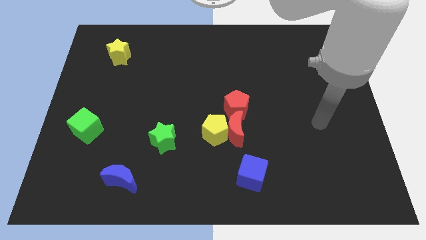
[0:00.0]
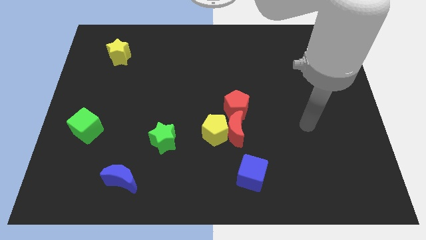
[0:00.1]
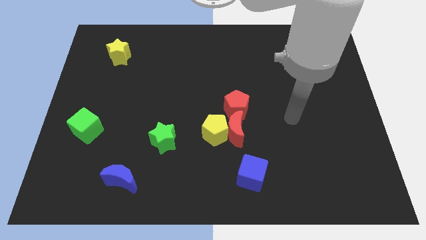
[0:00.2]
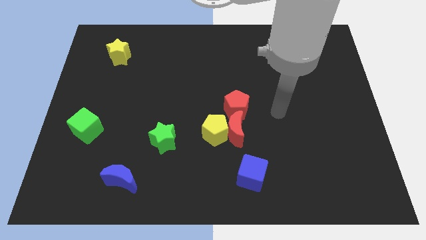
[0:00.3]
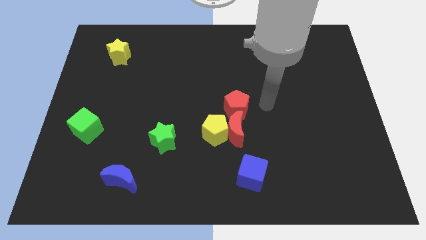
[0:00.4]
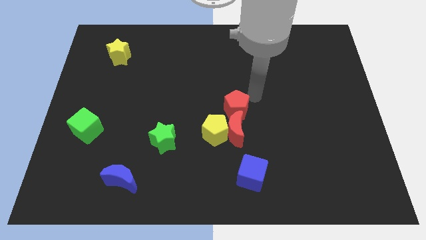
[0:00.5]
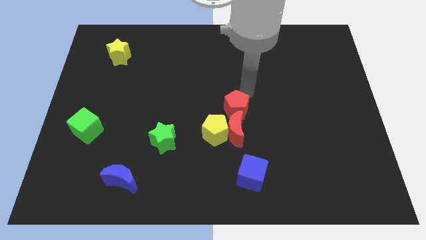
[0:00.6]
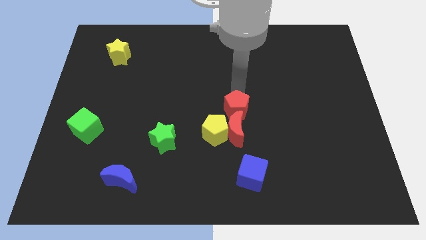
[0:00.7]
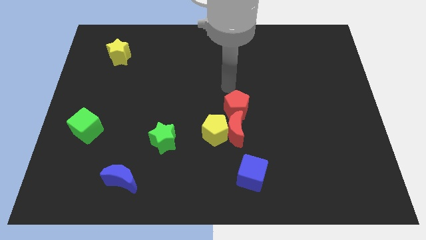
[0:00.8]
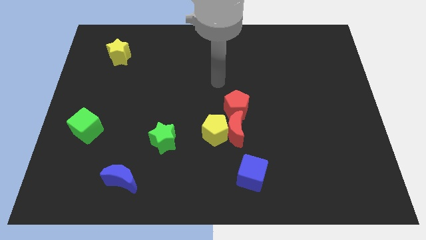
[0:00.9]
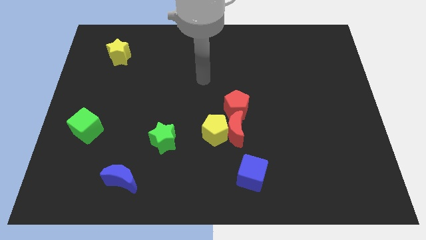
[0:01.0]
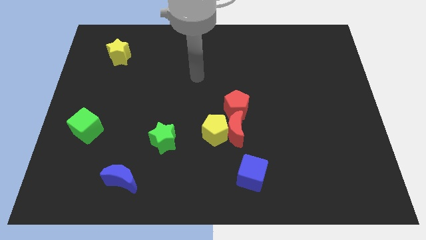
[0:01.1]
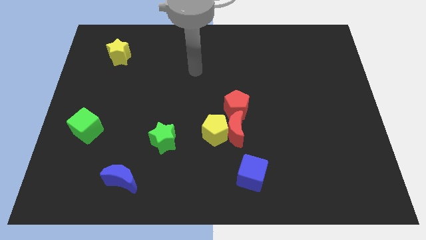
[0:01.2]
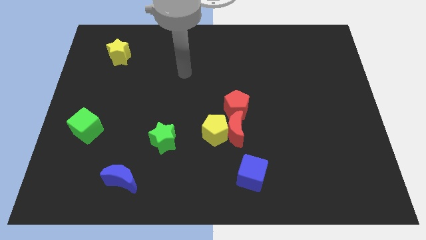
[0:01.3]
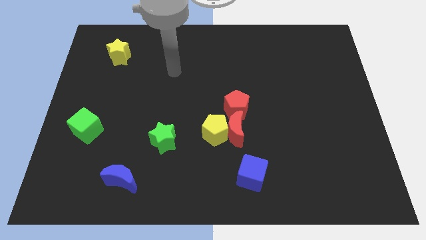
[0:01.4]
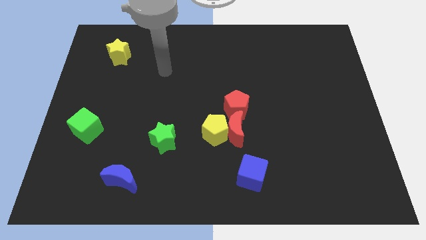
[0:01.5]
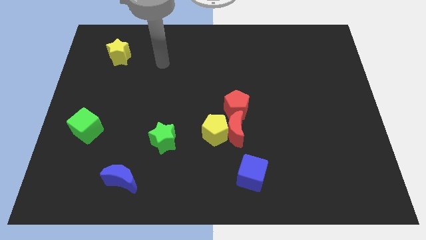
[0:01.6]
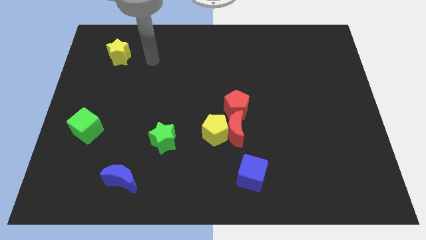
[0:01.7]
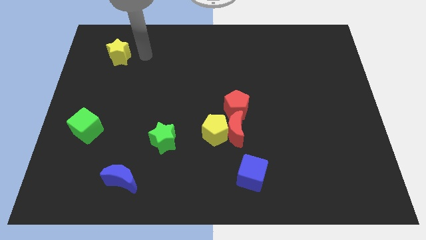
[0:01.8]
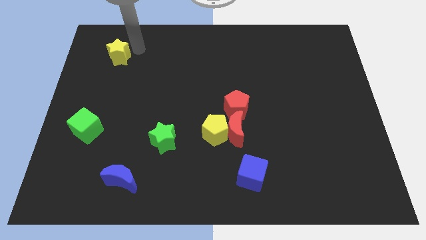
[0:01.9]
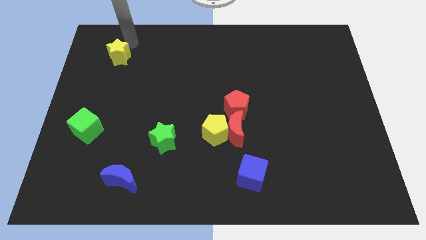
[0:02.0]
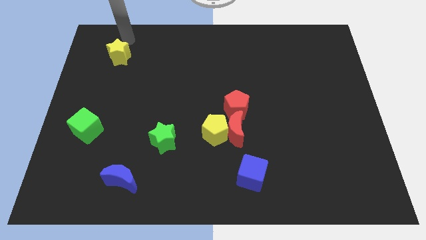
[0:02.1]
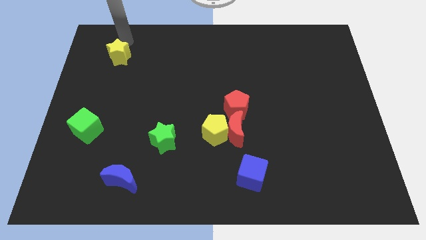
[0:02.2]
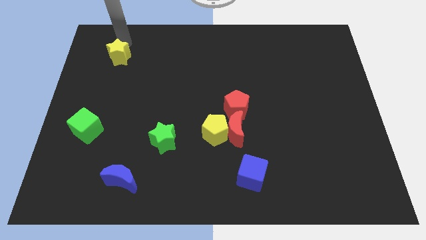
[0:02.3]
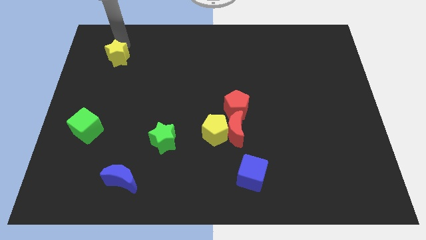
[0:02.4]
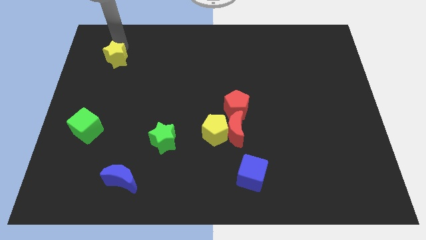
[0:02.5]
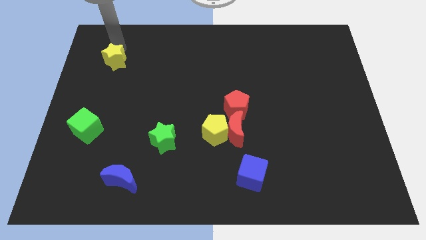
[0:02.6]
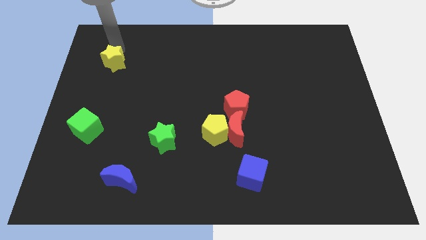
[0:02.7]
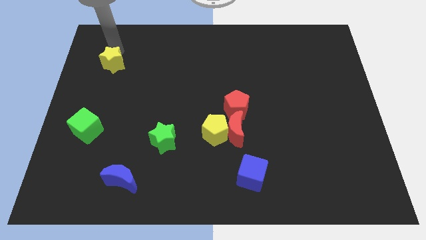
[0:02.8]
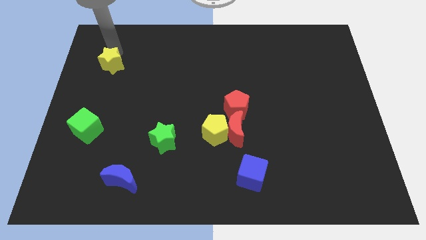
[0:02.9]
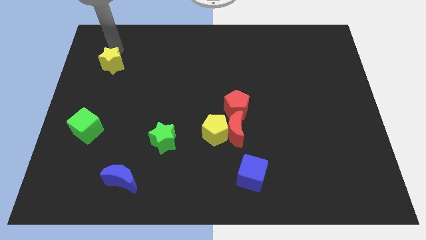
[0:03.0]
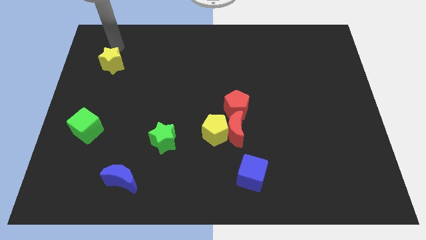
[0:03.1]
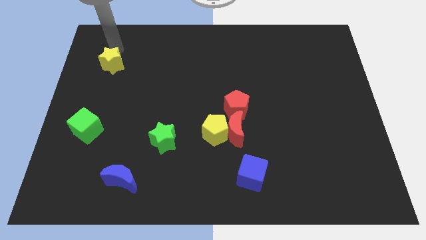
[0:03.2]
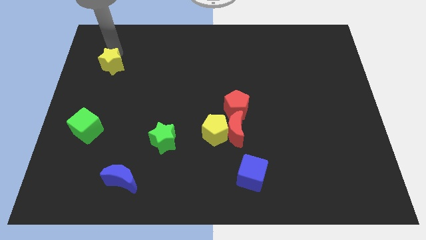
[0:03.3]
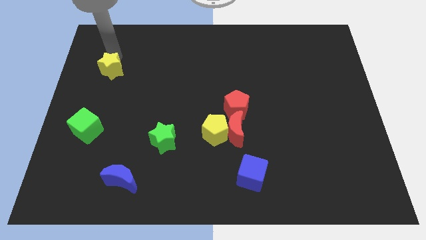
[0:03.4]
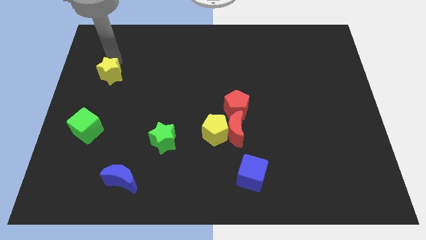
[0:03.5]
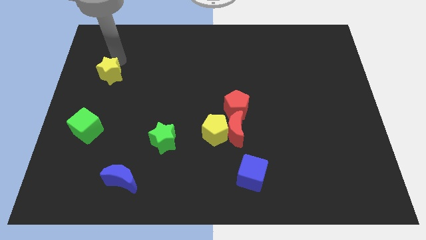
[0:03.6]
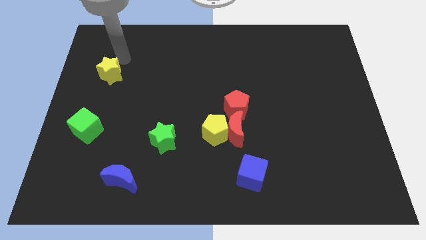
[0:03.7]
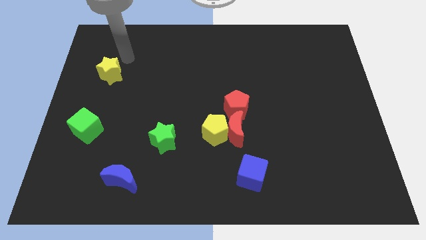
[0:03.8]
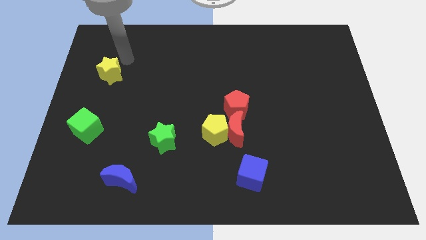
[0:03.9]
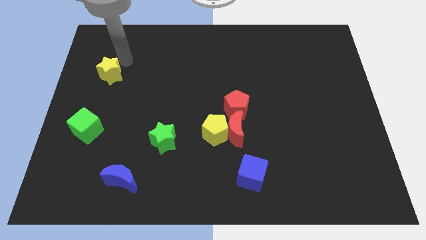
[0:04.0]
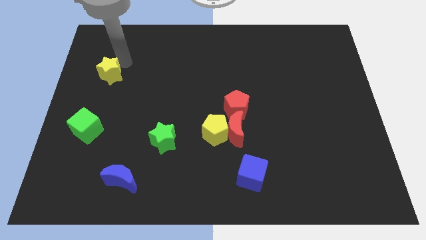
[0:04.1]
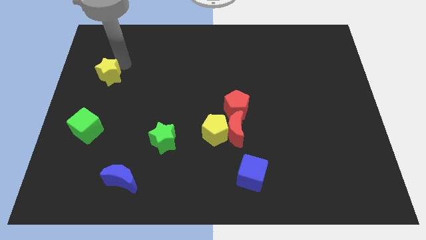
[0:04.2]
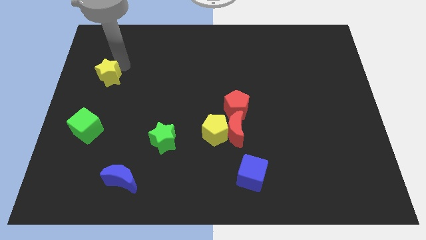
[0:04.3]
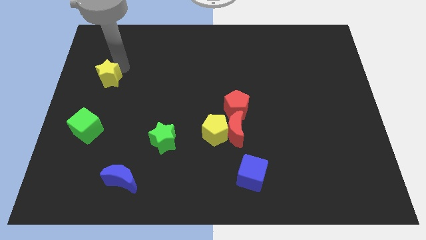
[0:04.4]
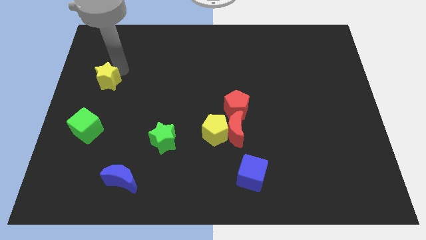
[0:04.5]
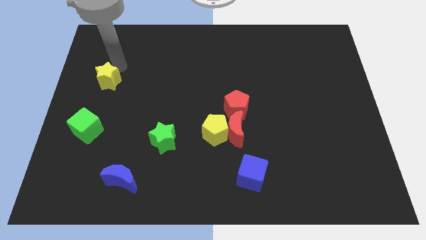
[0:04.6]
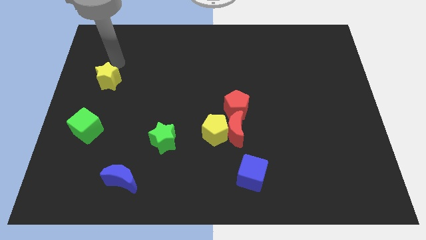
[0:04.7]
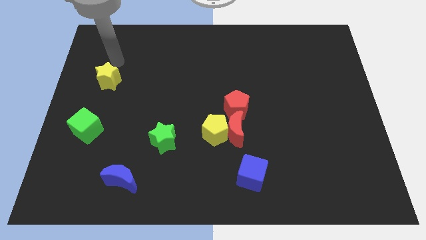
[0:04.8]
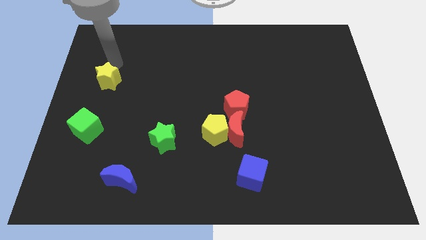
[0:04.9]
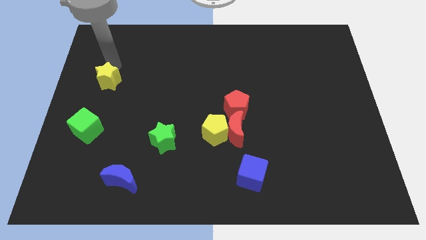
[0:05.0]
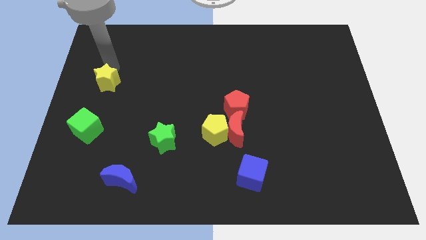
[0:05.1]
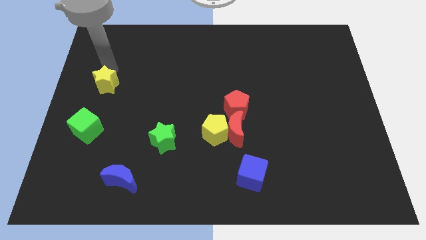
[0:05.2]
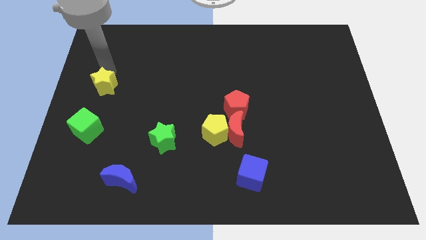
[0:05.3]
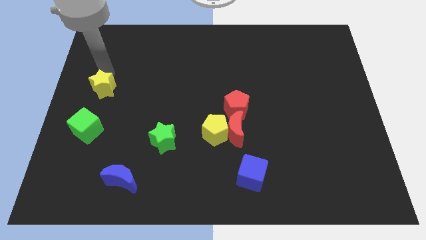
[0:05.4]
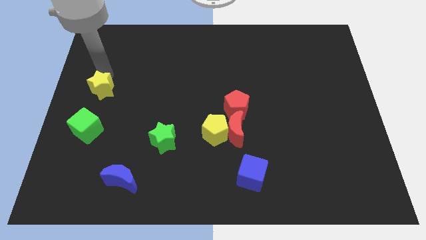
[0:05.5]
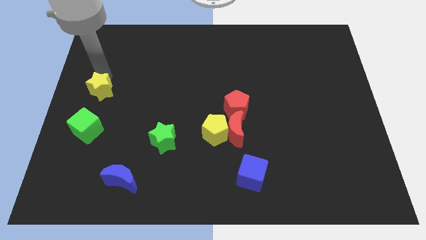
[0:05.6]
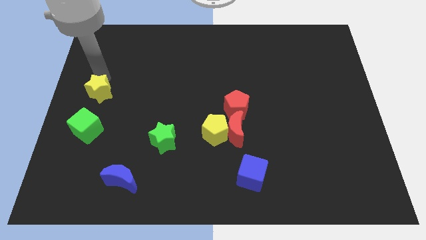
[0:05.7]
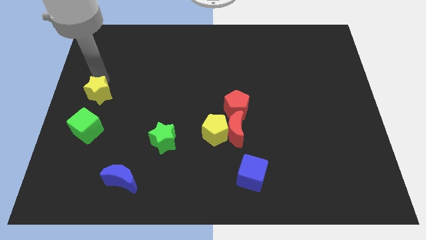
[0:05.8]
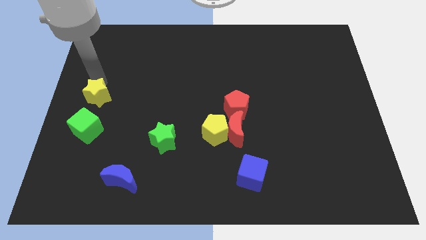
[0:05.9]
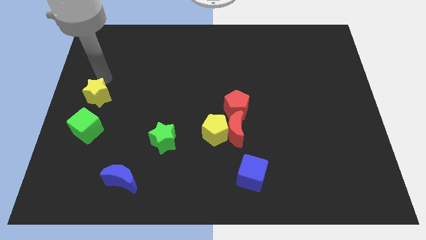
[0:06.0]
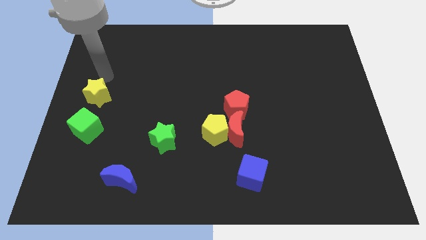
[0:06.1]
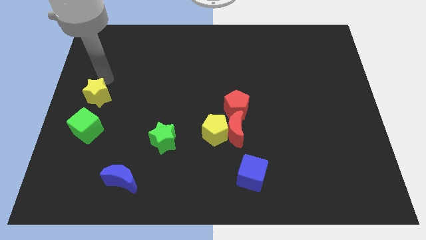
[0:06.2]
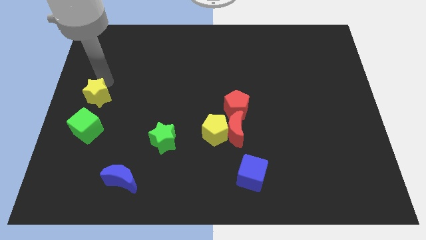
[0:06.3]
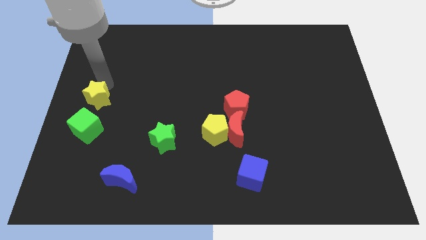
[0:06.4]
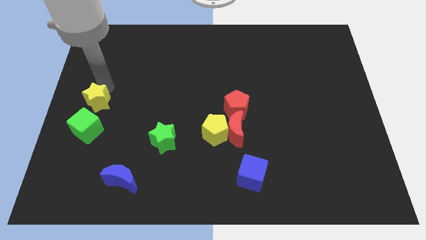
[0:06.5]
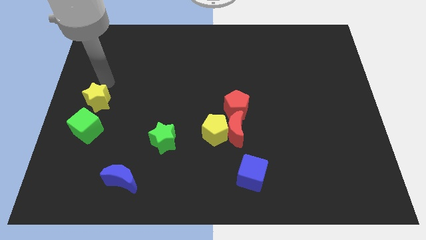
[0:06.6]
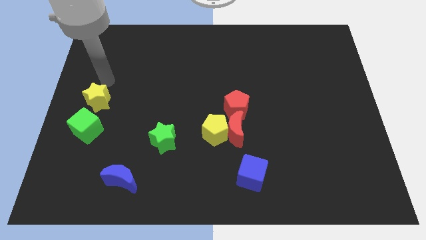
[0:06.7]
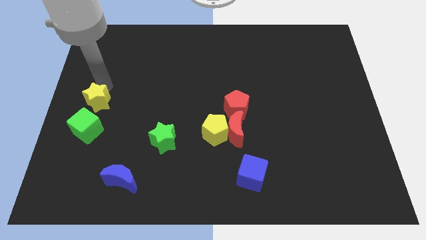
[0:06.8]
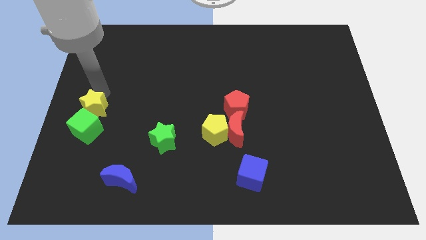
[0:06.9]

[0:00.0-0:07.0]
move the yellow star close to the green cube
